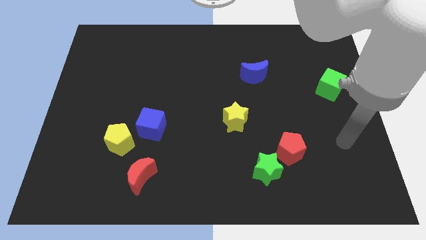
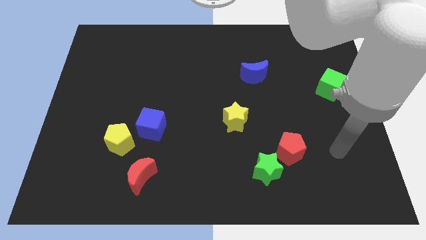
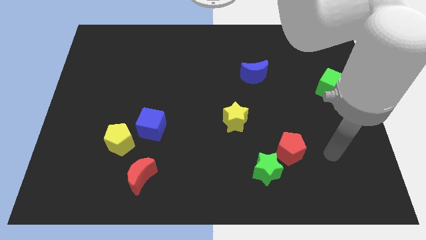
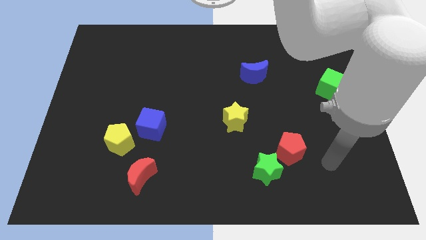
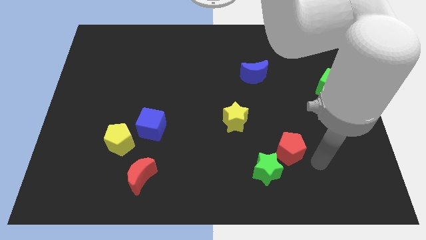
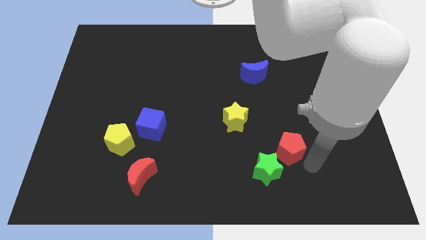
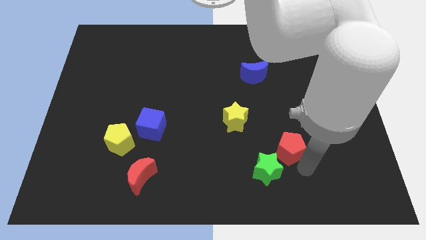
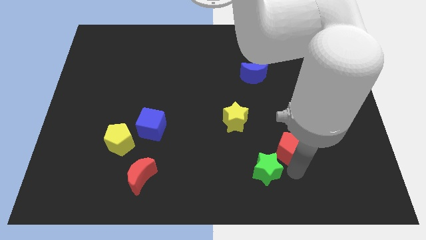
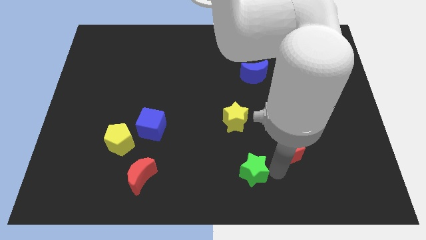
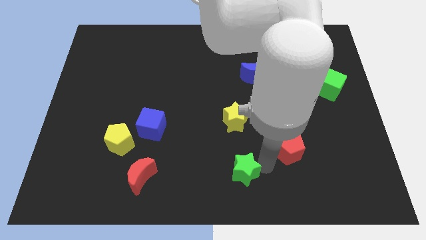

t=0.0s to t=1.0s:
move the red pentagon away from the green star

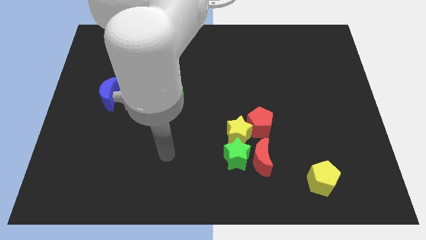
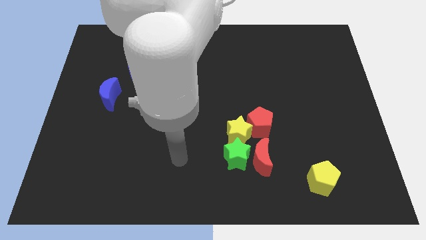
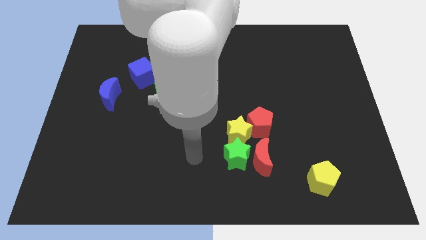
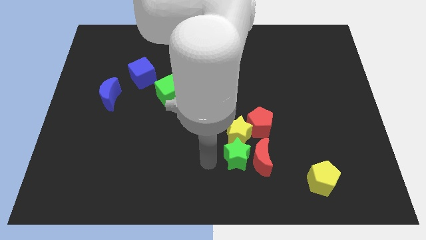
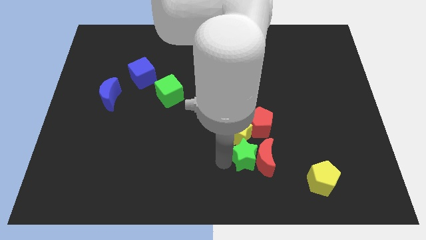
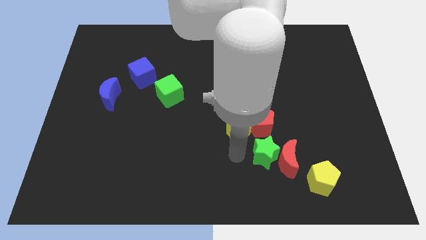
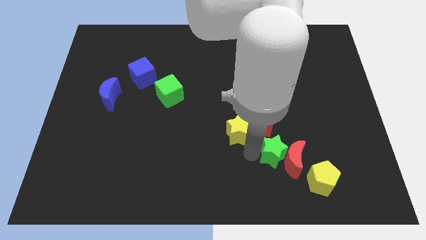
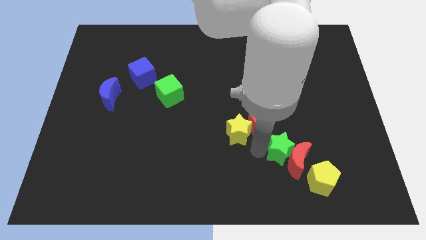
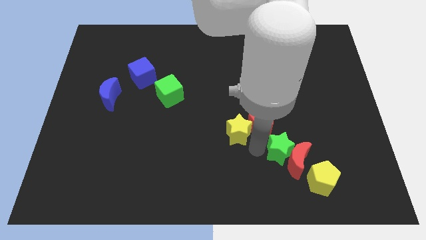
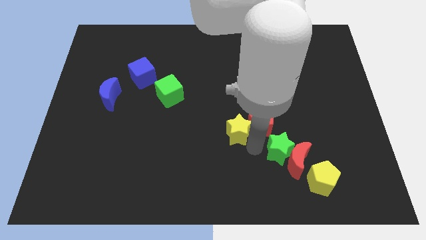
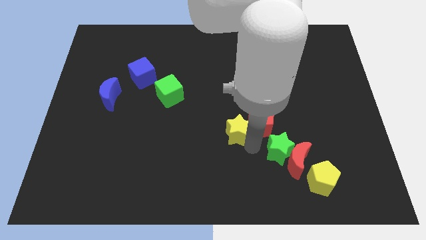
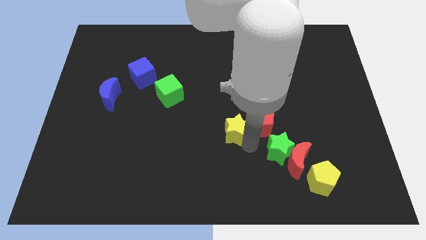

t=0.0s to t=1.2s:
separate the yellow star from the green star, red pentagon, and red moon

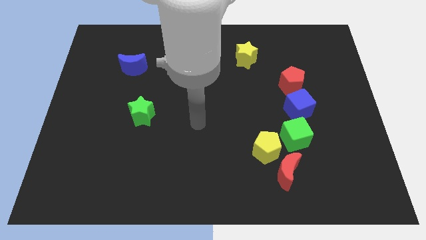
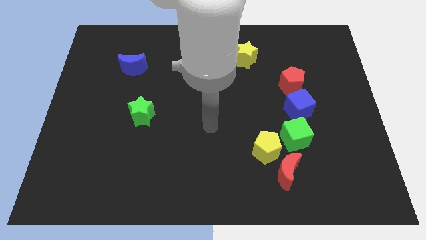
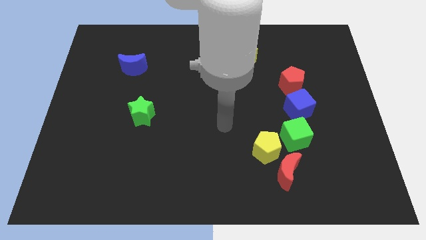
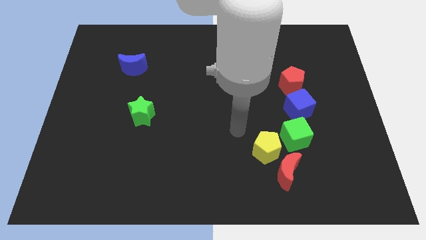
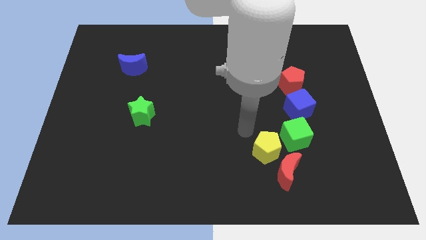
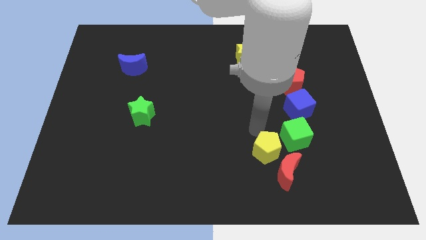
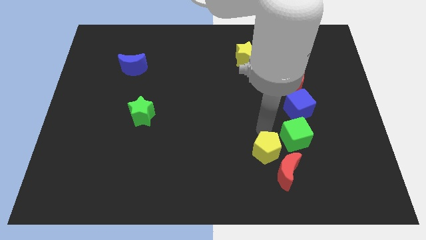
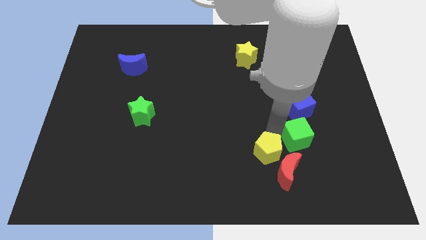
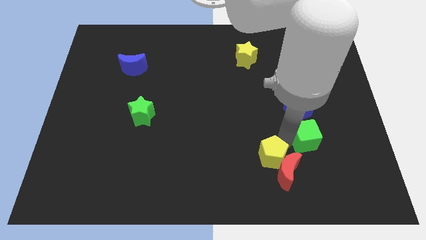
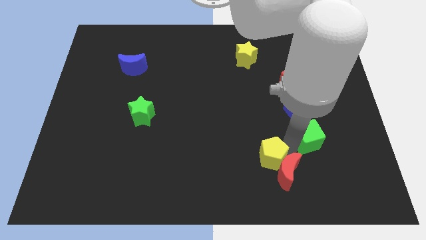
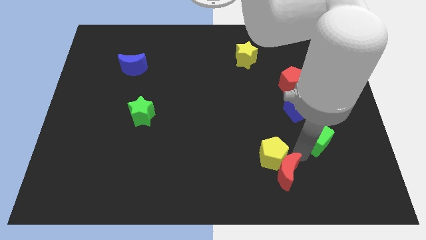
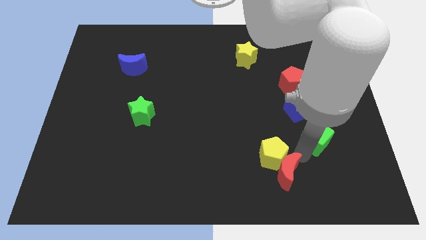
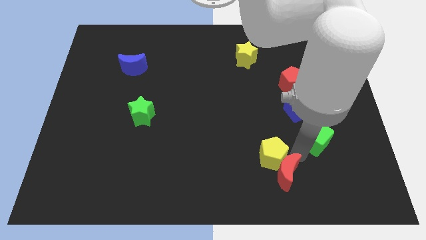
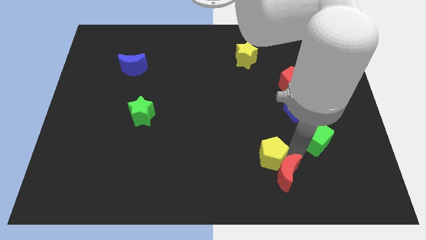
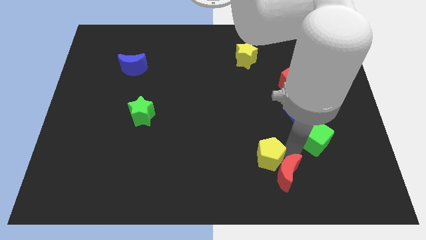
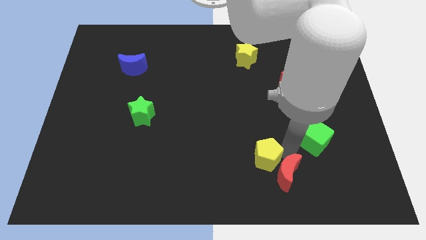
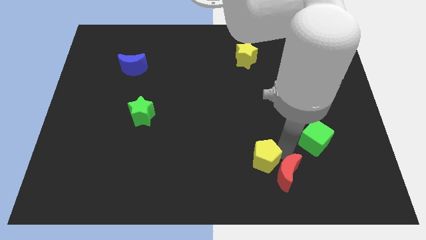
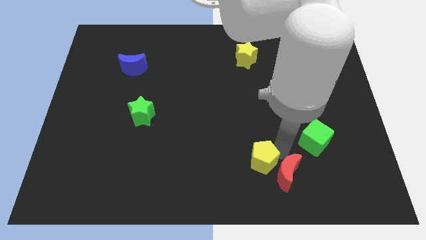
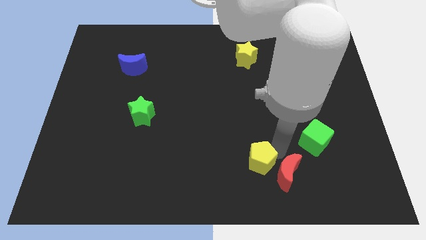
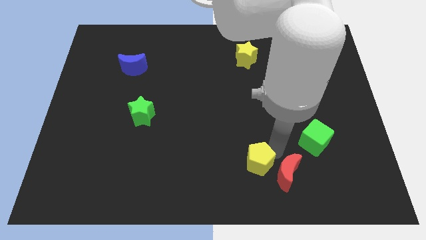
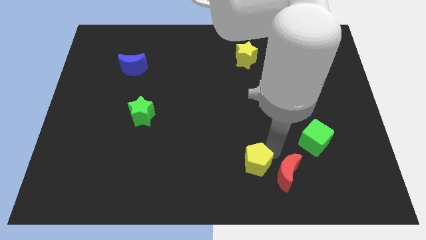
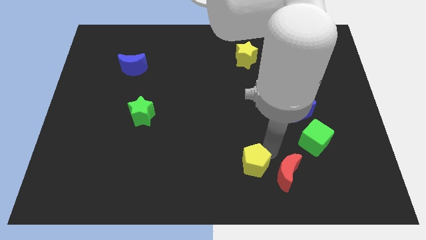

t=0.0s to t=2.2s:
separate the yellow pentagon from the red moon and green cube

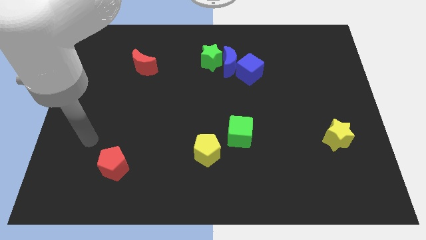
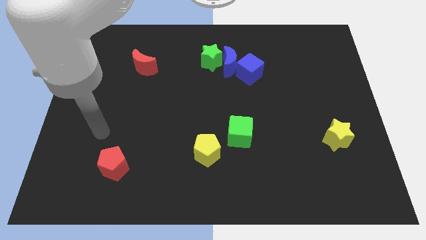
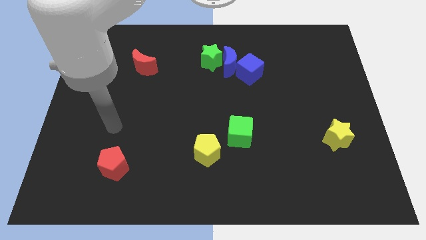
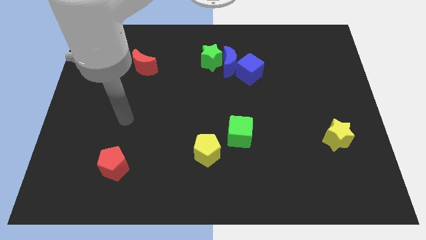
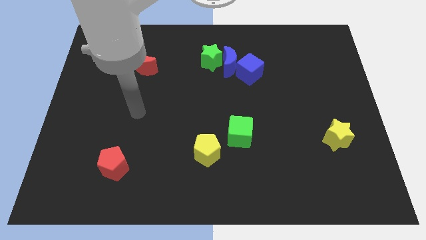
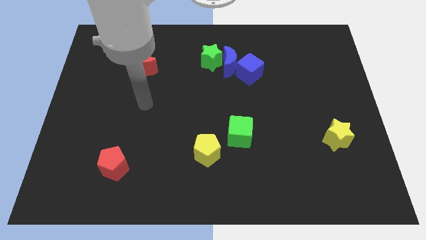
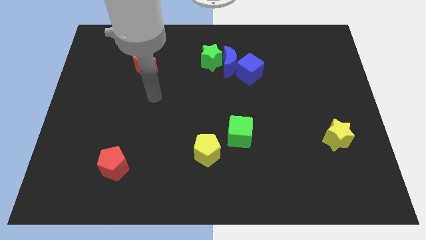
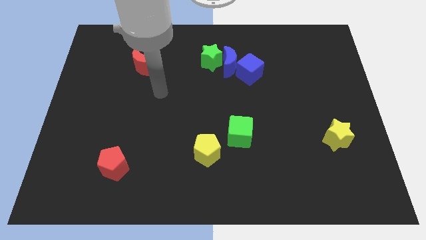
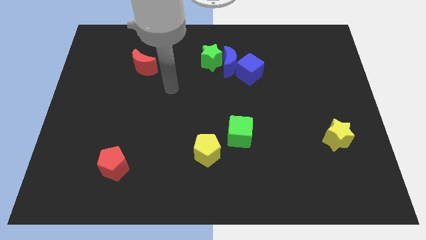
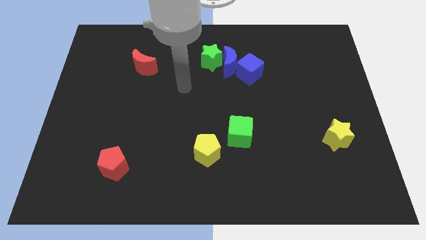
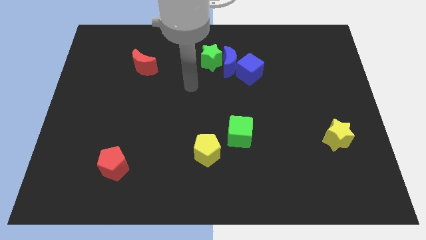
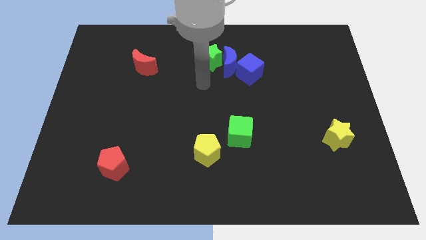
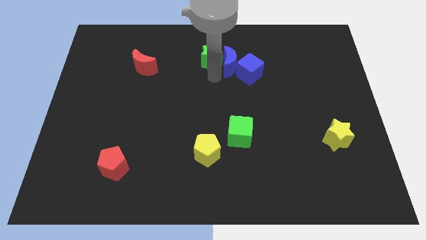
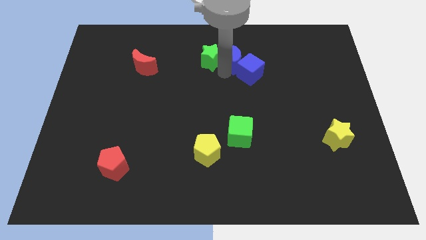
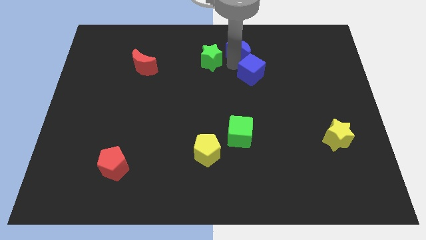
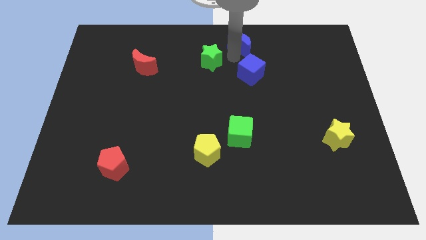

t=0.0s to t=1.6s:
pull the green star apart from the blue moon

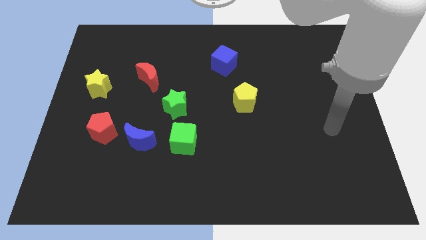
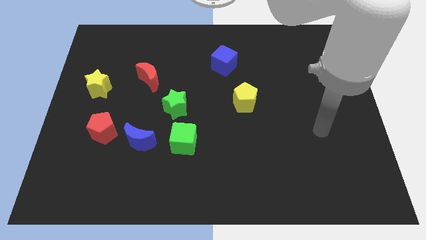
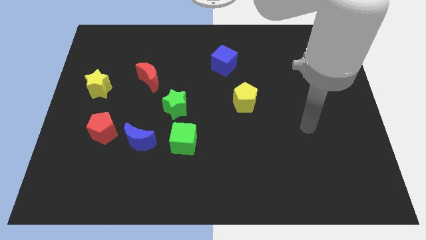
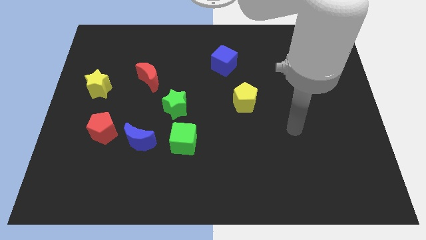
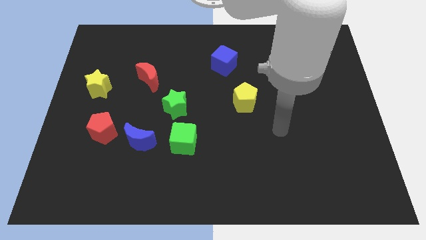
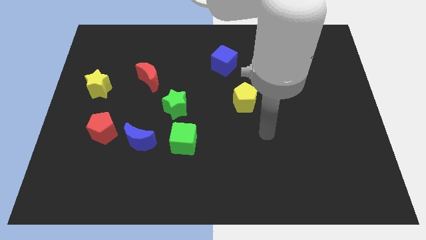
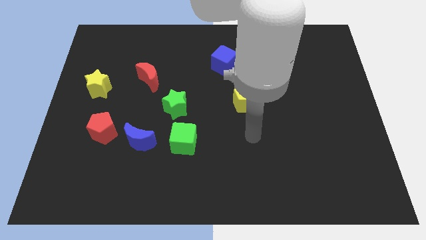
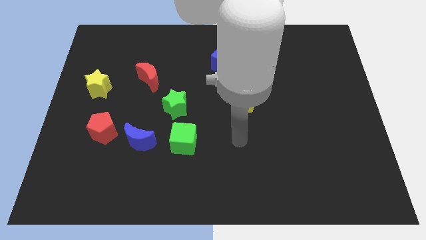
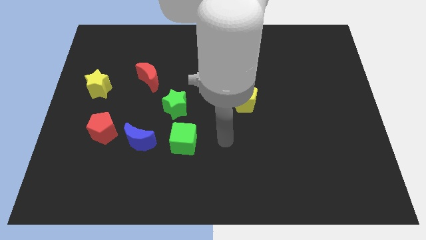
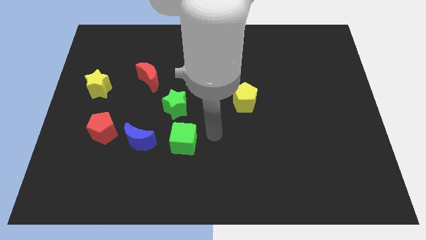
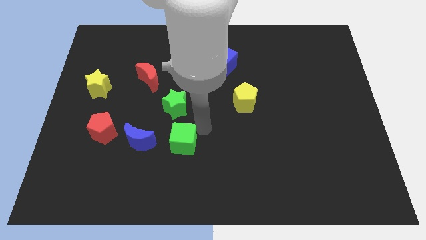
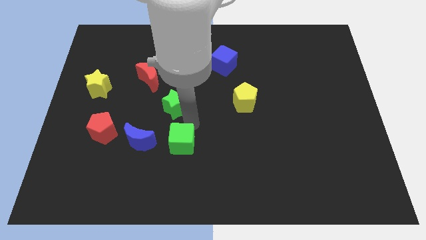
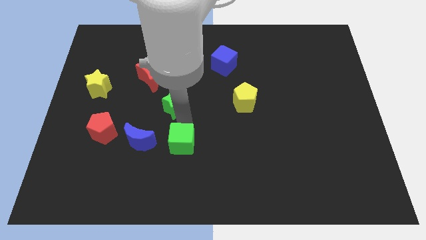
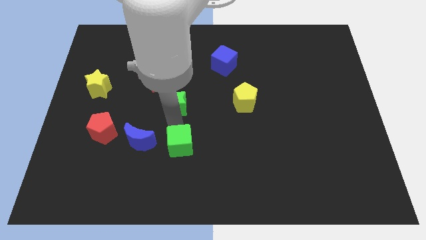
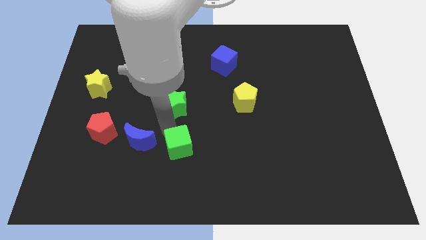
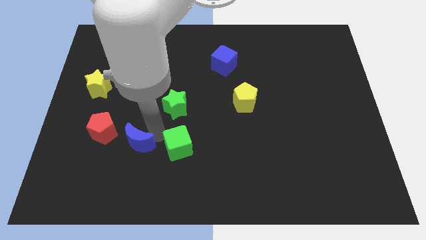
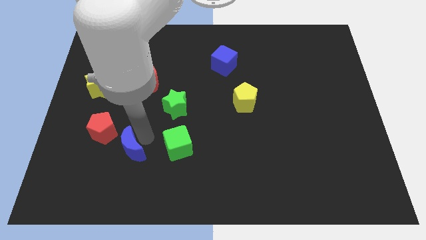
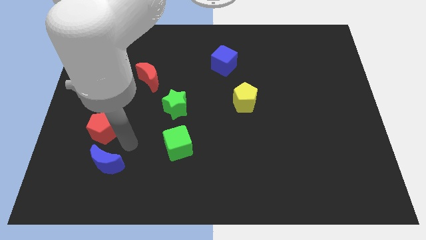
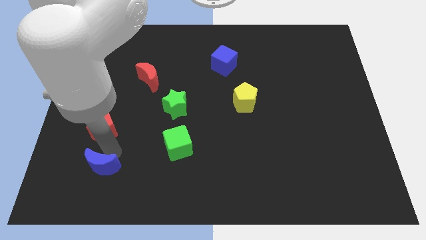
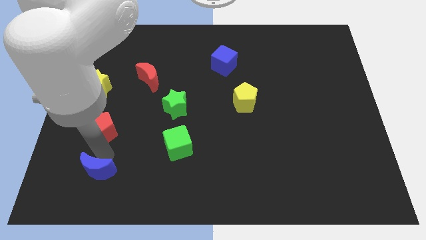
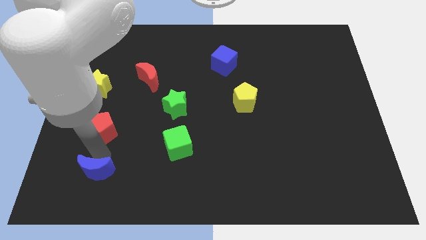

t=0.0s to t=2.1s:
pull the red pentagon apart from the blue moon

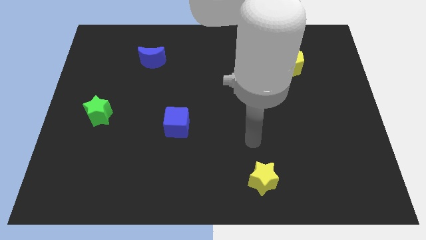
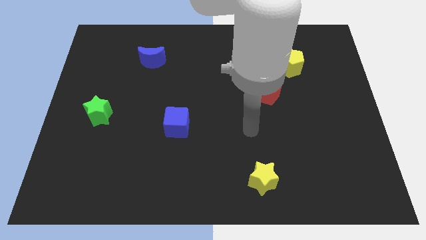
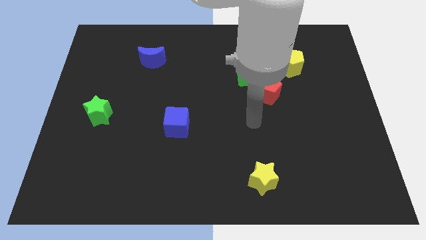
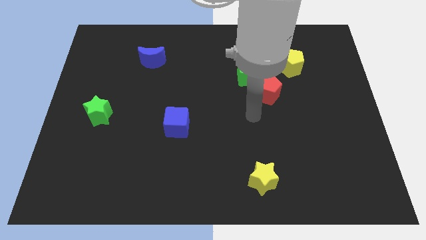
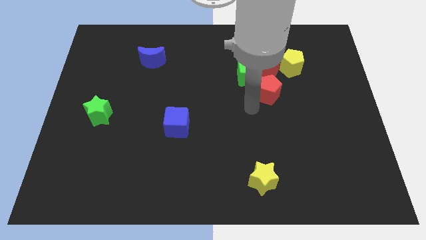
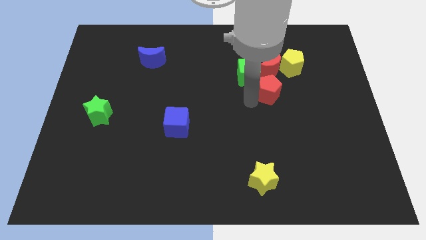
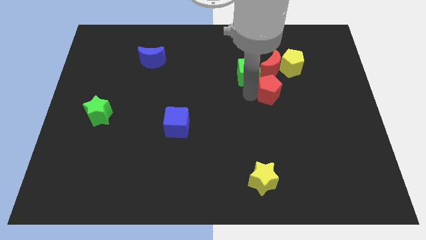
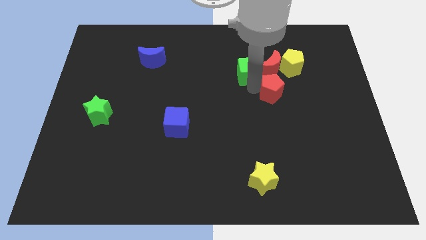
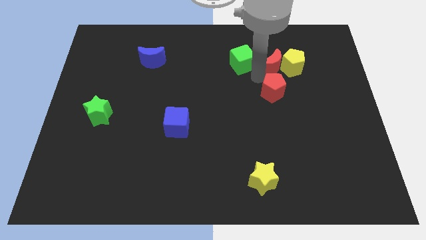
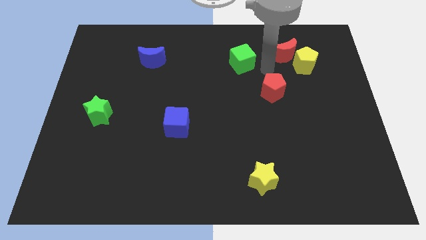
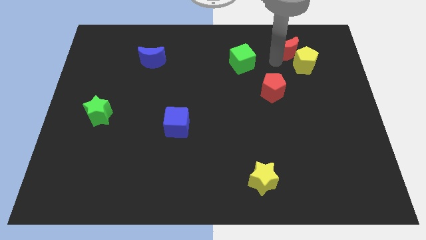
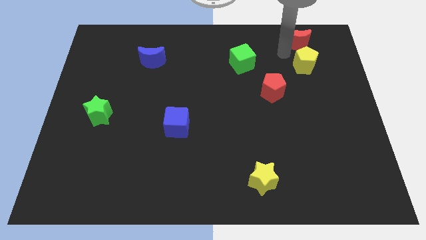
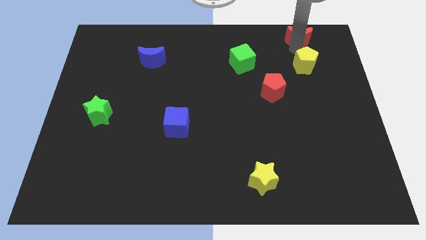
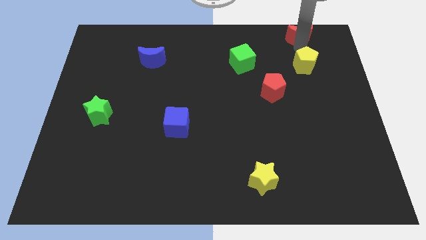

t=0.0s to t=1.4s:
separate the yellow pentagon from the red moon
